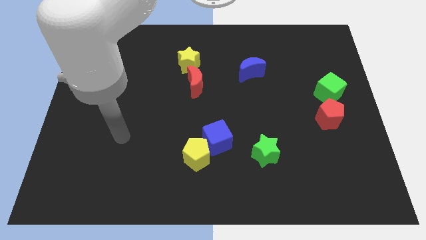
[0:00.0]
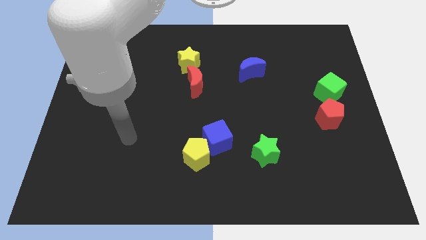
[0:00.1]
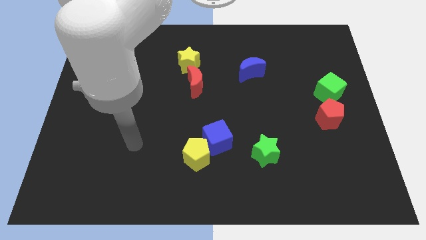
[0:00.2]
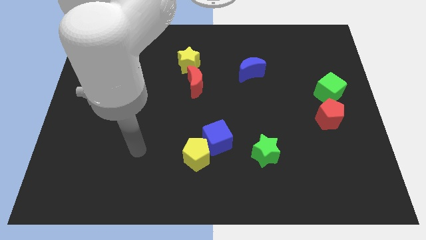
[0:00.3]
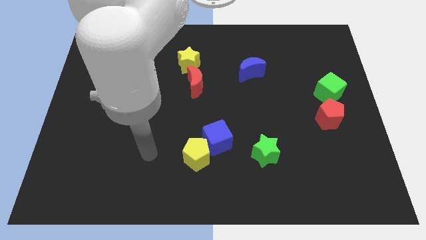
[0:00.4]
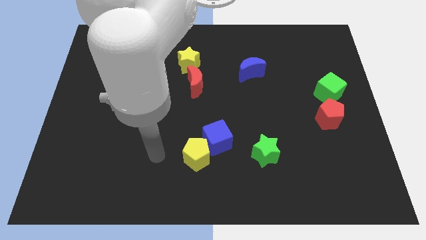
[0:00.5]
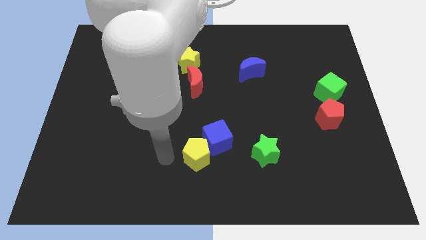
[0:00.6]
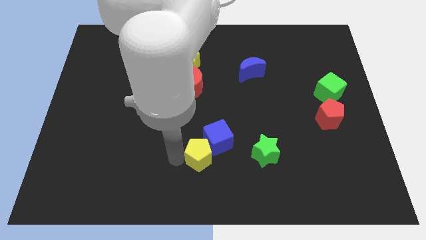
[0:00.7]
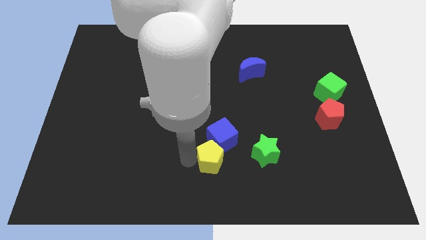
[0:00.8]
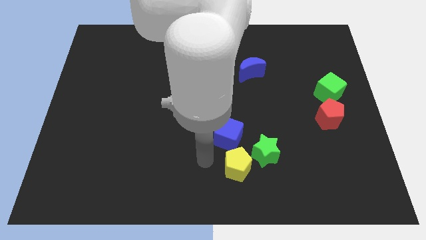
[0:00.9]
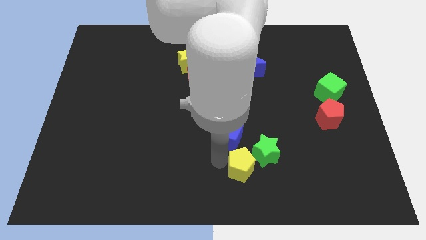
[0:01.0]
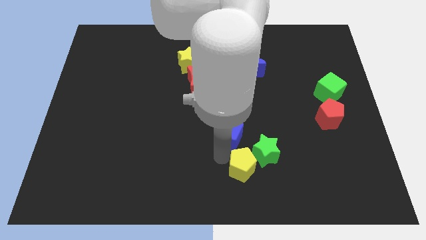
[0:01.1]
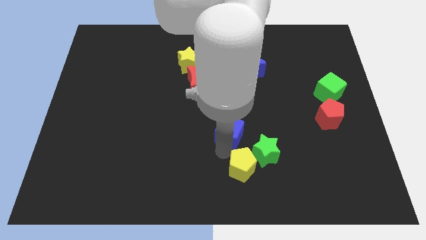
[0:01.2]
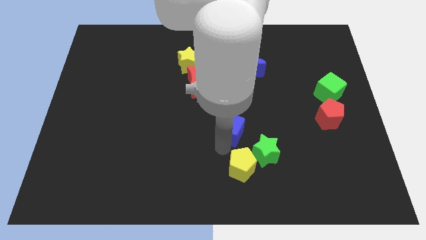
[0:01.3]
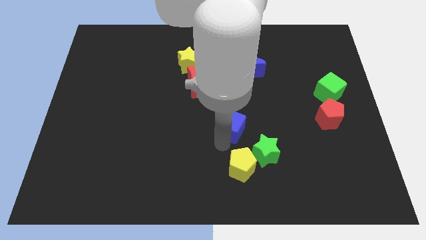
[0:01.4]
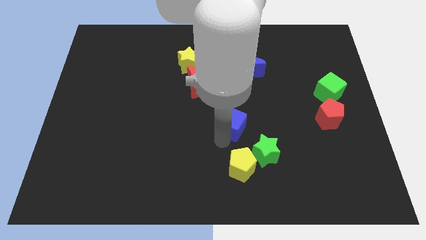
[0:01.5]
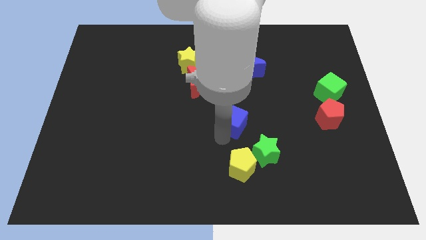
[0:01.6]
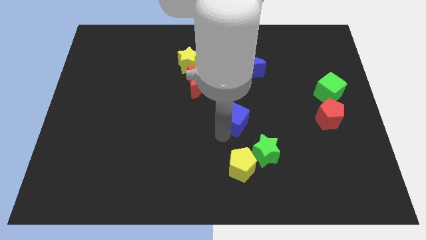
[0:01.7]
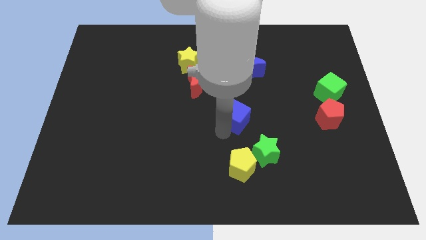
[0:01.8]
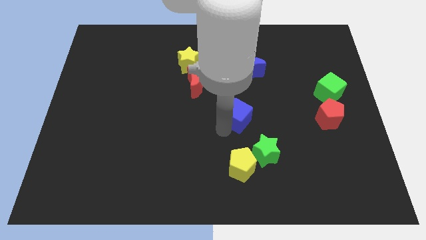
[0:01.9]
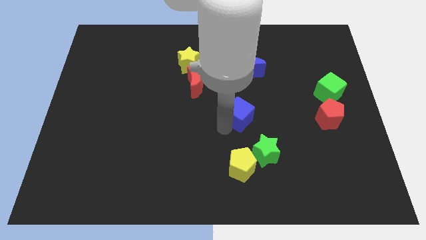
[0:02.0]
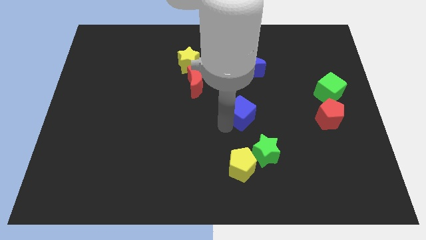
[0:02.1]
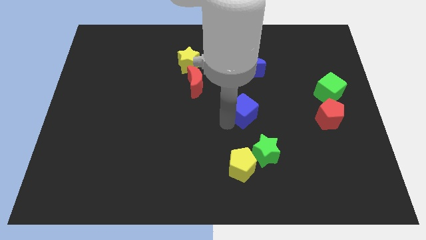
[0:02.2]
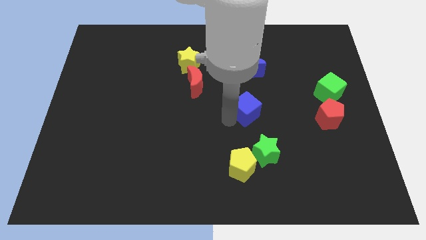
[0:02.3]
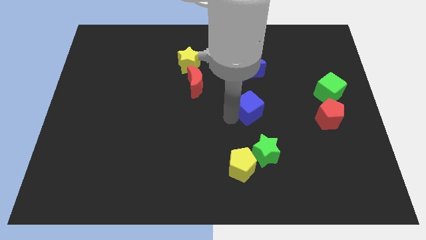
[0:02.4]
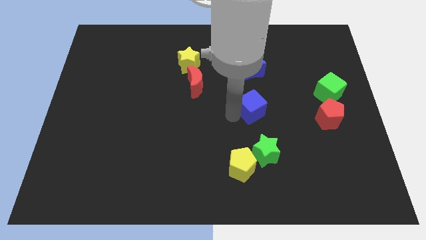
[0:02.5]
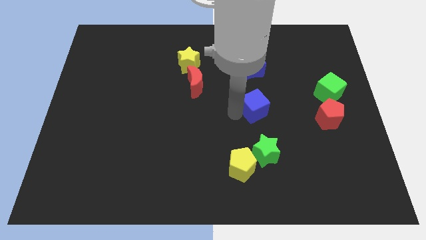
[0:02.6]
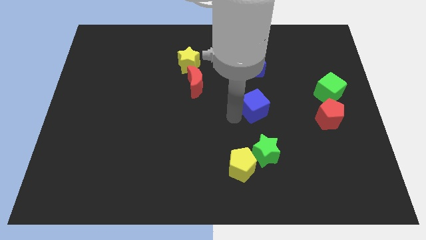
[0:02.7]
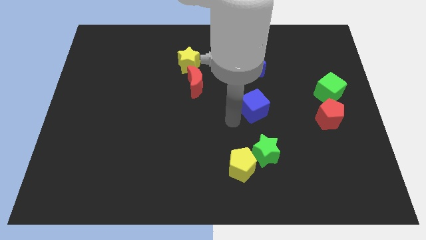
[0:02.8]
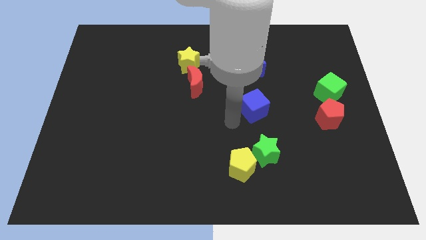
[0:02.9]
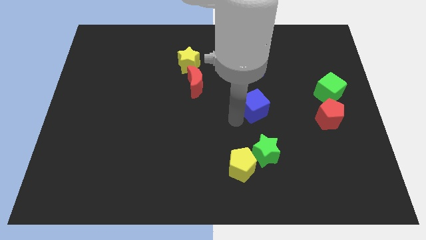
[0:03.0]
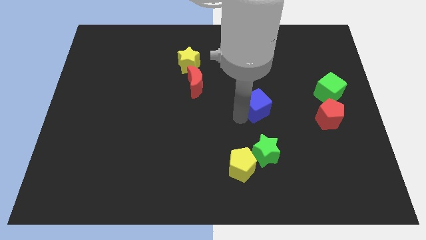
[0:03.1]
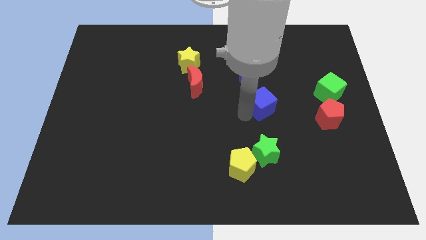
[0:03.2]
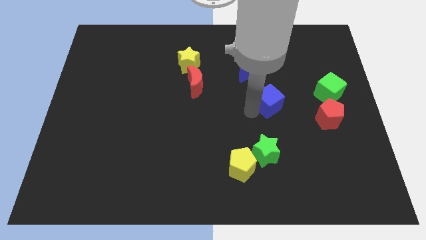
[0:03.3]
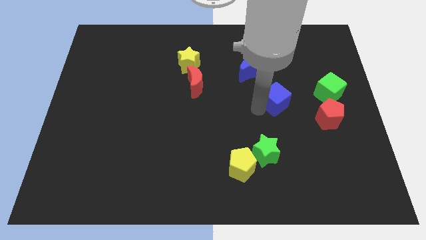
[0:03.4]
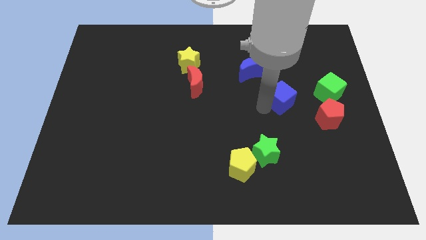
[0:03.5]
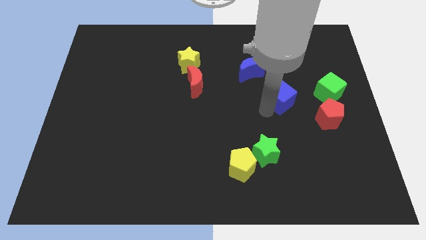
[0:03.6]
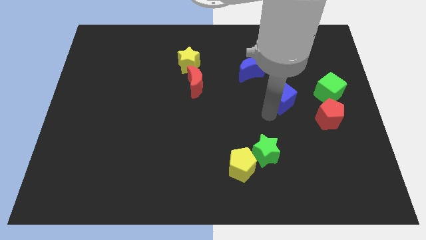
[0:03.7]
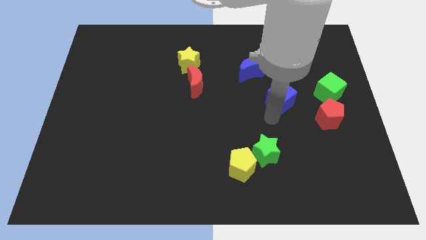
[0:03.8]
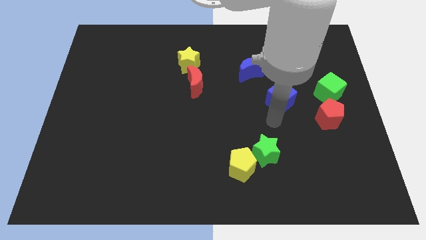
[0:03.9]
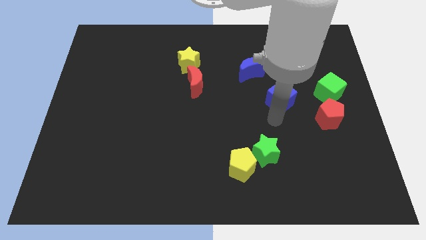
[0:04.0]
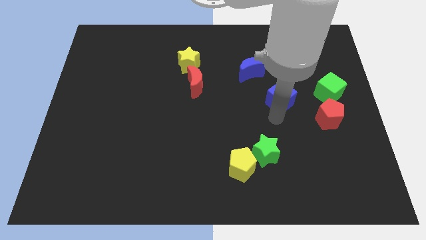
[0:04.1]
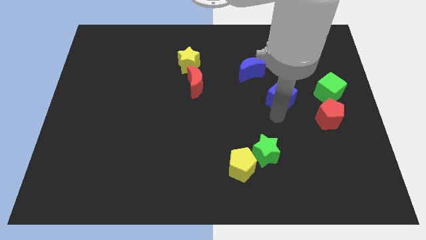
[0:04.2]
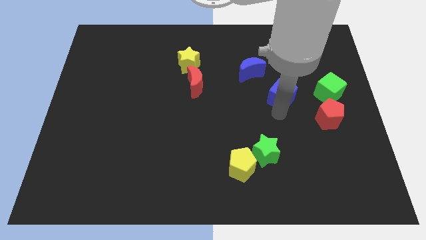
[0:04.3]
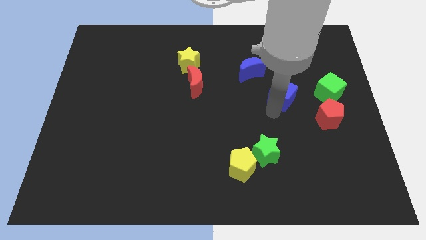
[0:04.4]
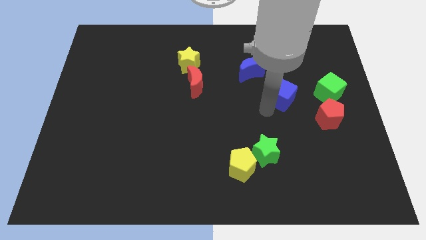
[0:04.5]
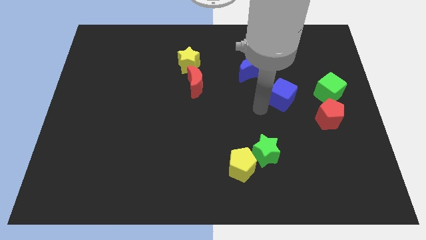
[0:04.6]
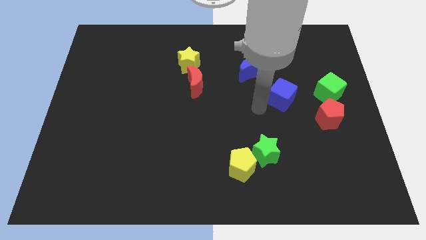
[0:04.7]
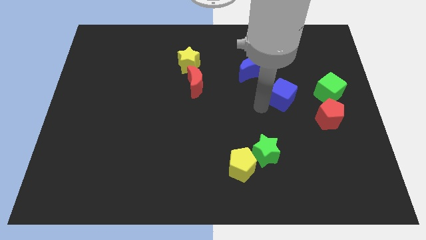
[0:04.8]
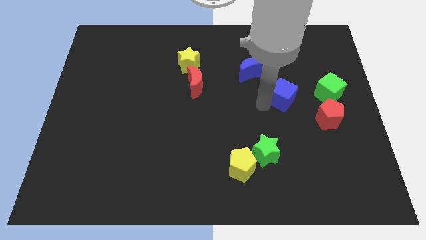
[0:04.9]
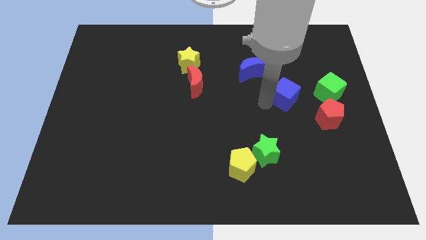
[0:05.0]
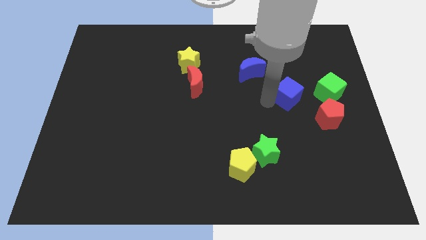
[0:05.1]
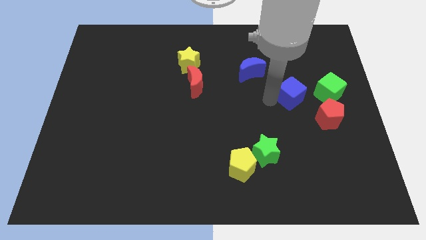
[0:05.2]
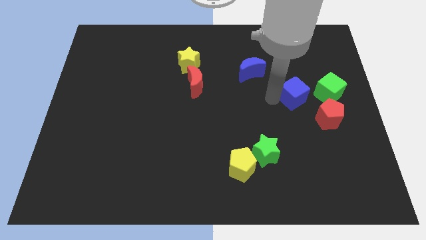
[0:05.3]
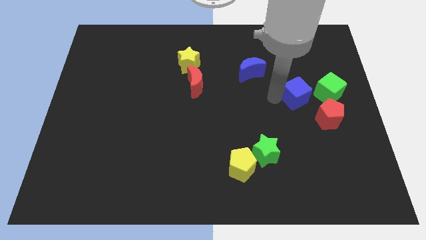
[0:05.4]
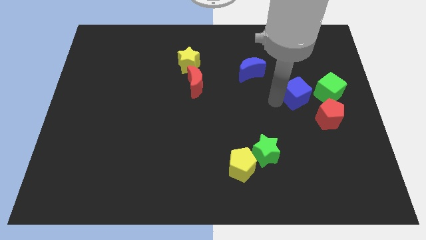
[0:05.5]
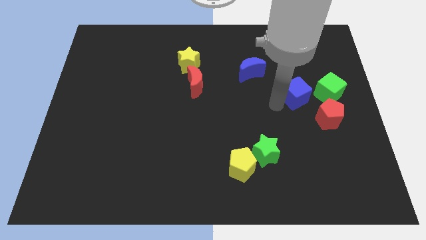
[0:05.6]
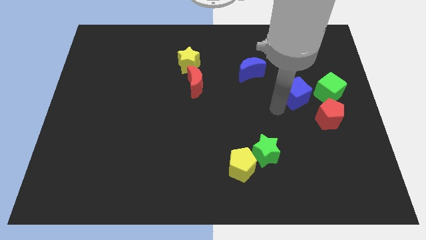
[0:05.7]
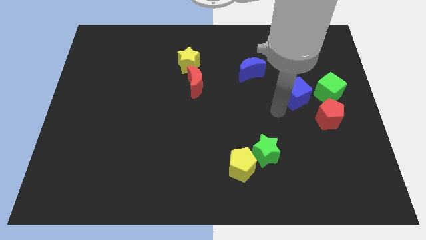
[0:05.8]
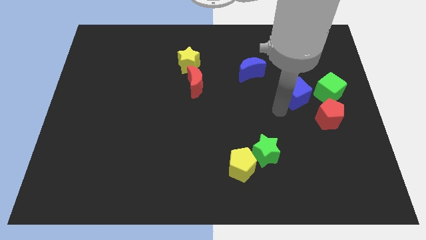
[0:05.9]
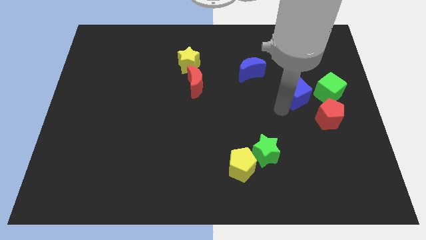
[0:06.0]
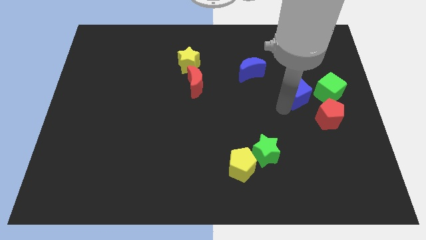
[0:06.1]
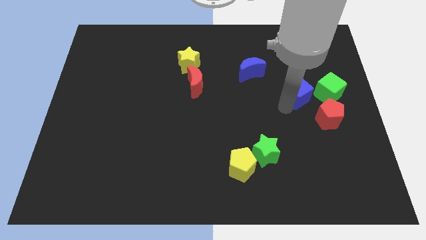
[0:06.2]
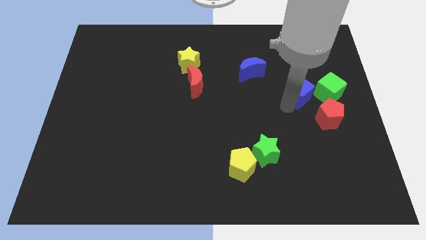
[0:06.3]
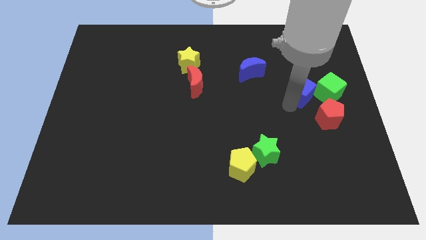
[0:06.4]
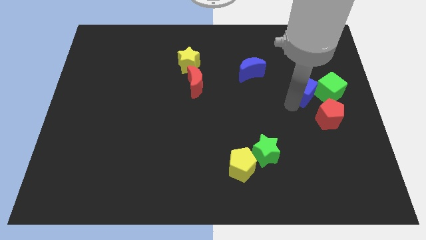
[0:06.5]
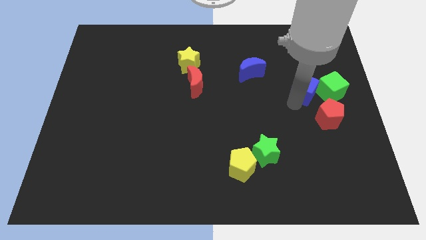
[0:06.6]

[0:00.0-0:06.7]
push the blue cube above the red pentagon
